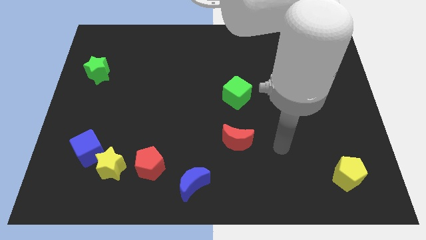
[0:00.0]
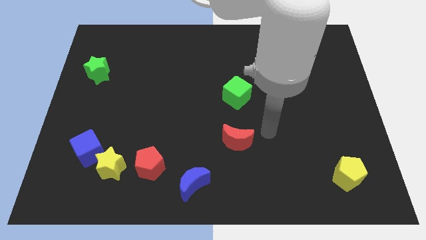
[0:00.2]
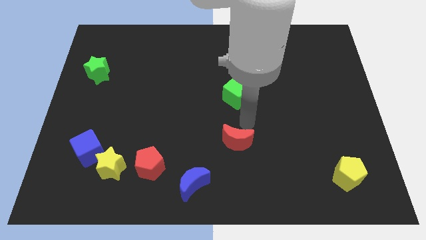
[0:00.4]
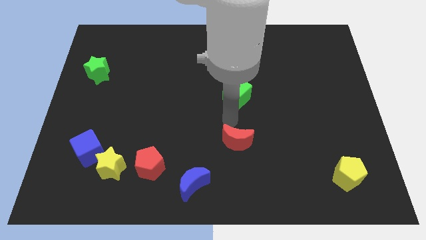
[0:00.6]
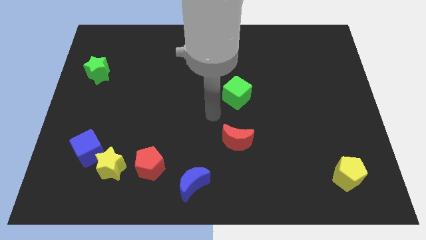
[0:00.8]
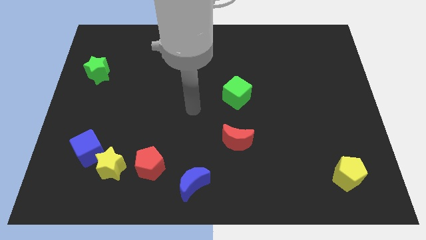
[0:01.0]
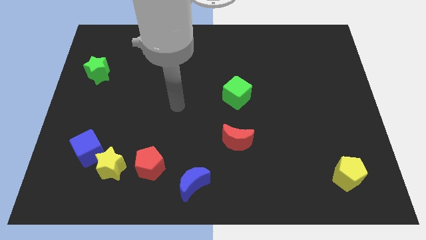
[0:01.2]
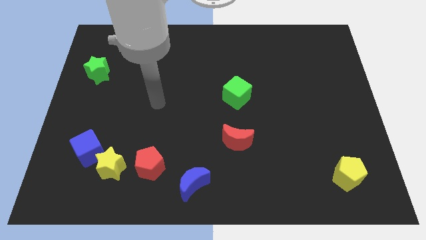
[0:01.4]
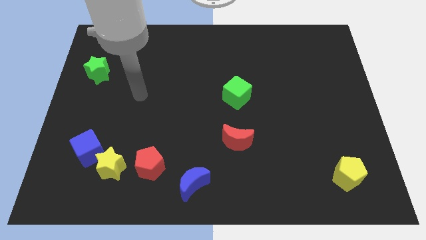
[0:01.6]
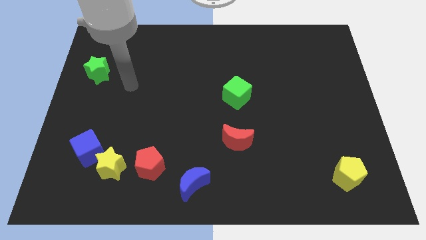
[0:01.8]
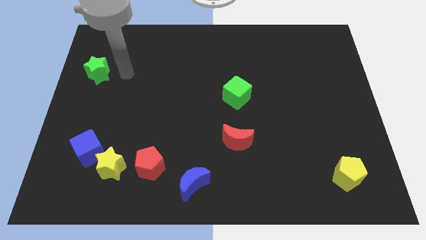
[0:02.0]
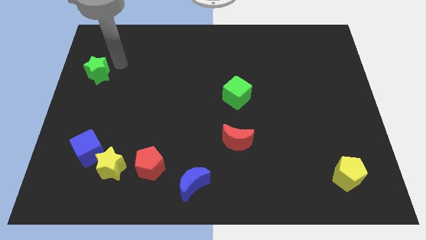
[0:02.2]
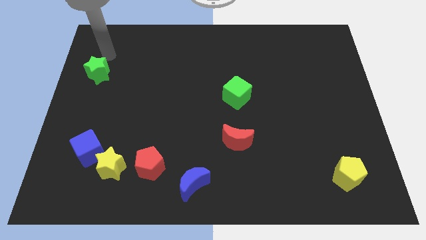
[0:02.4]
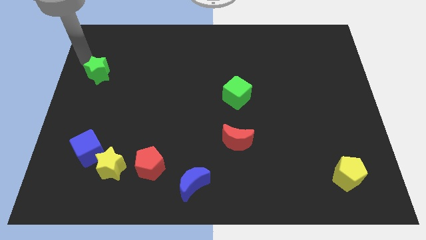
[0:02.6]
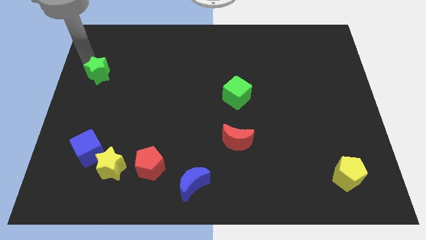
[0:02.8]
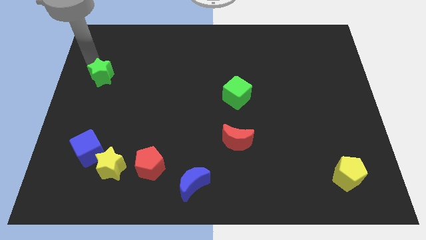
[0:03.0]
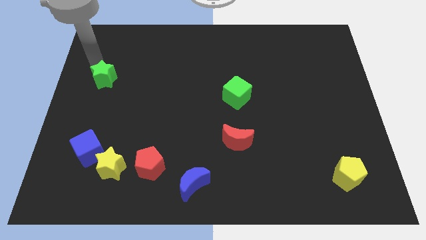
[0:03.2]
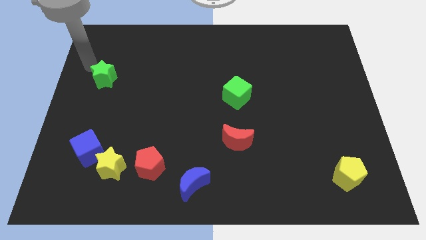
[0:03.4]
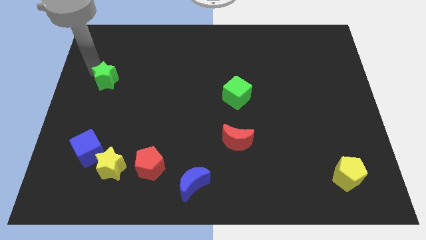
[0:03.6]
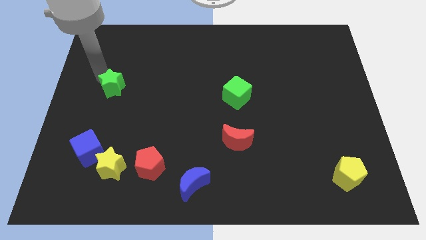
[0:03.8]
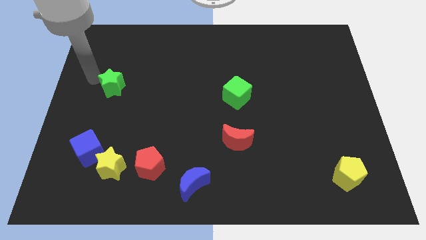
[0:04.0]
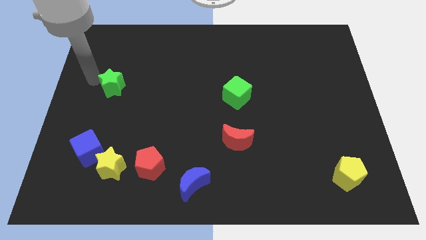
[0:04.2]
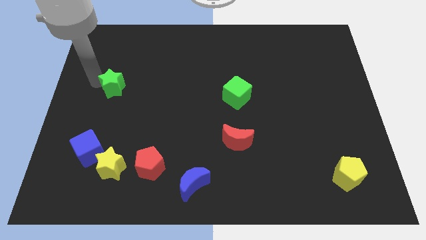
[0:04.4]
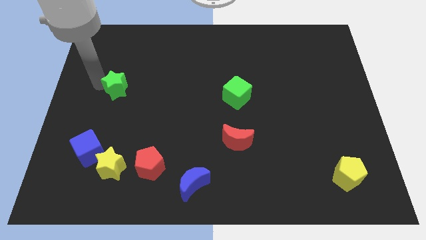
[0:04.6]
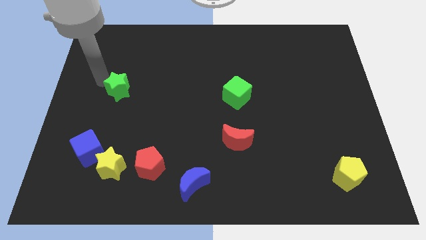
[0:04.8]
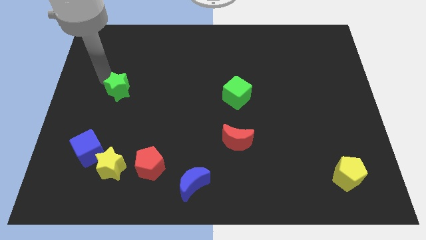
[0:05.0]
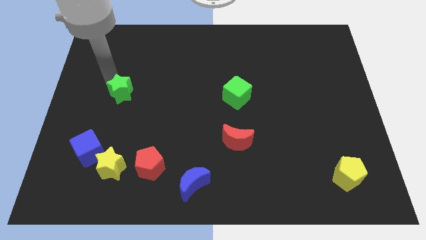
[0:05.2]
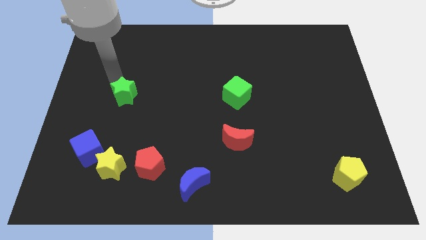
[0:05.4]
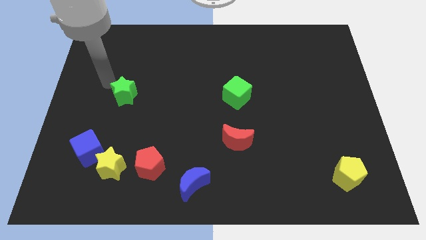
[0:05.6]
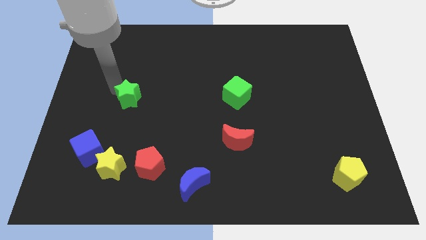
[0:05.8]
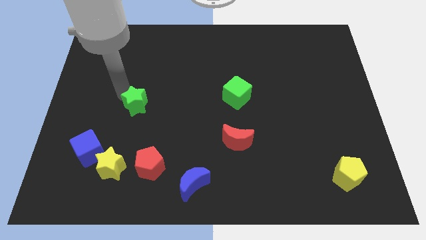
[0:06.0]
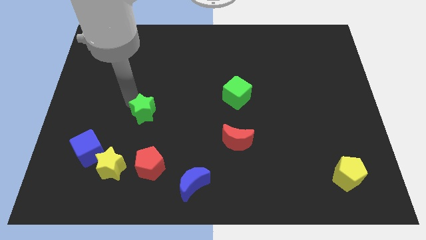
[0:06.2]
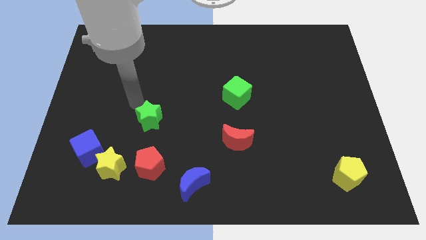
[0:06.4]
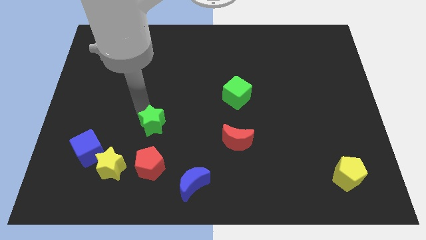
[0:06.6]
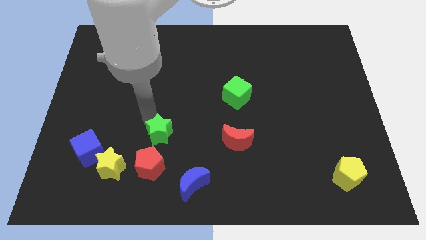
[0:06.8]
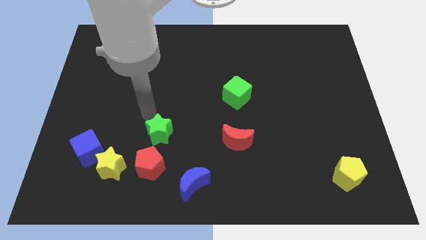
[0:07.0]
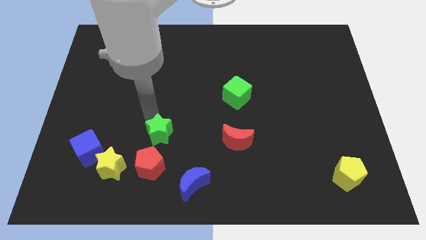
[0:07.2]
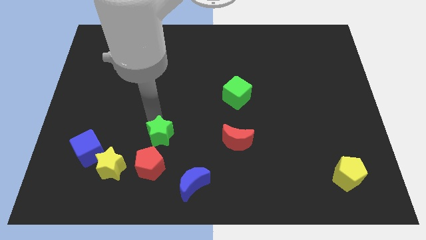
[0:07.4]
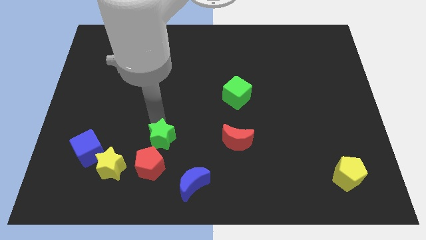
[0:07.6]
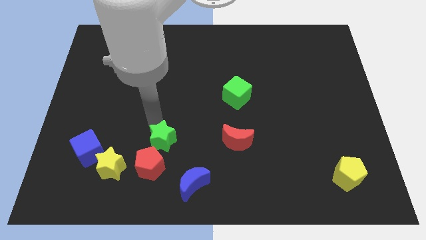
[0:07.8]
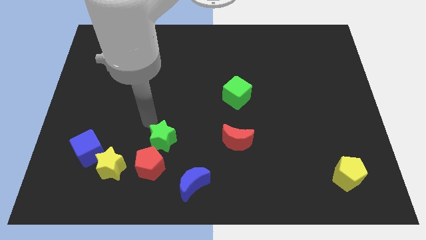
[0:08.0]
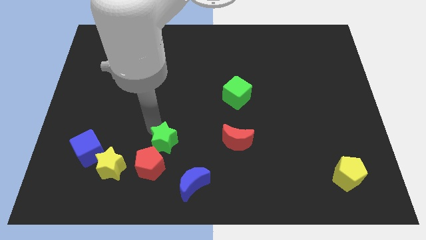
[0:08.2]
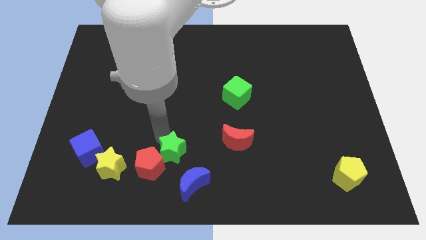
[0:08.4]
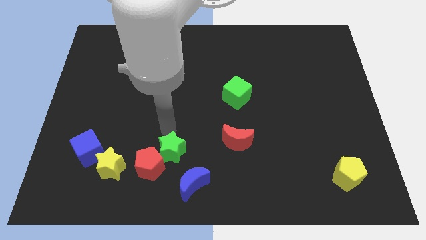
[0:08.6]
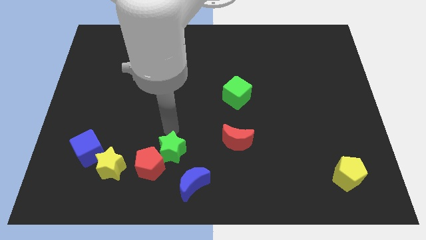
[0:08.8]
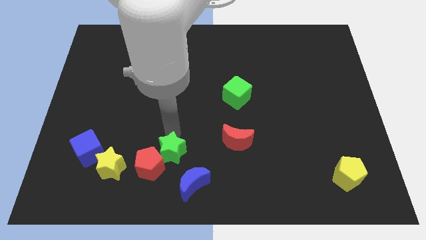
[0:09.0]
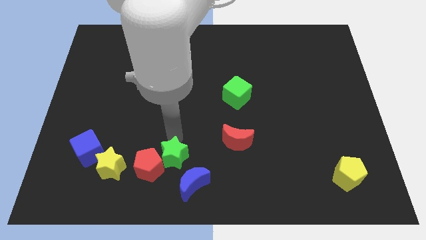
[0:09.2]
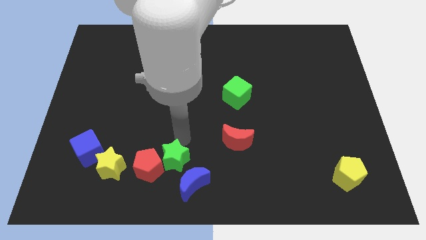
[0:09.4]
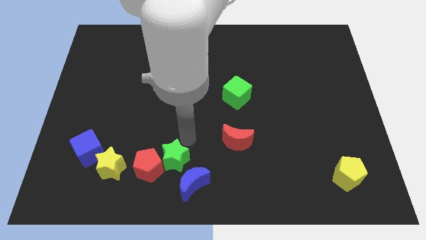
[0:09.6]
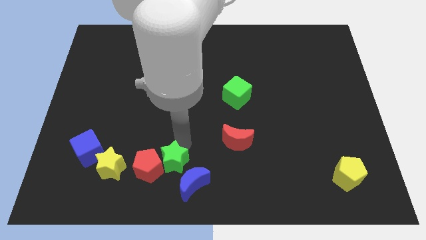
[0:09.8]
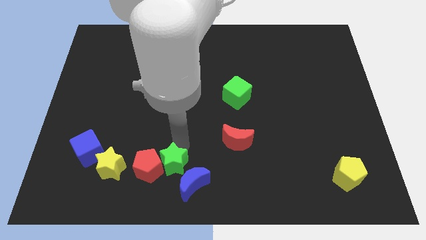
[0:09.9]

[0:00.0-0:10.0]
move the green star just left of the blue moon

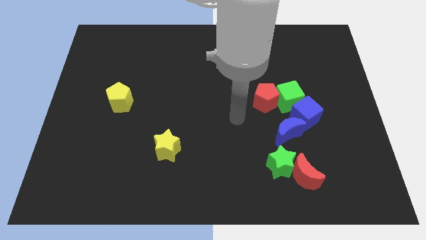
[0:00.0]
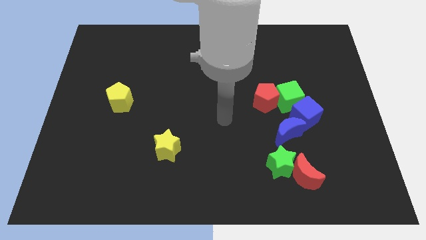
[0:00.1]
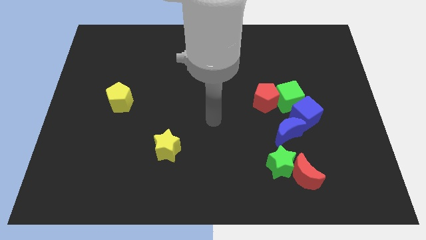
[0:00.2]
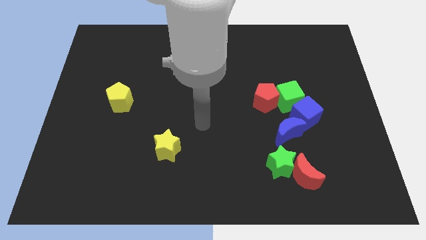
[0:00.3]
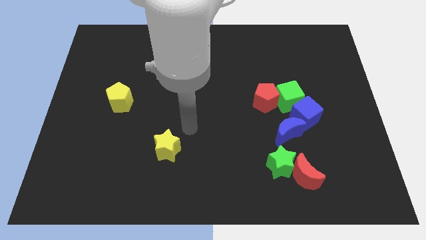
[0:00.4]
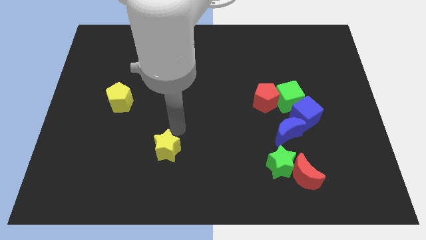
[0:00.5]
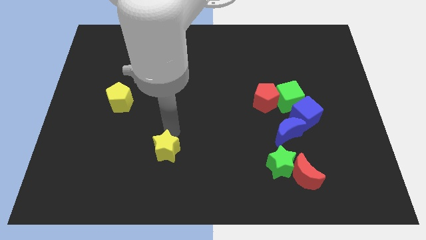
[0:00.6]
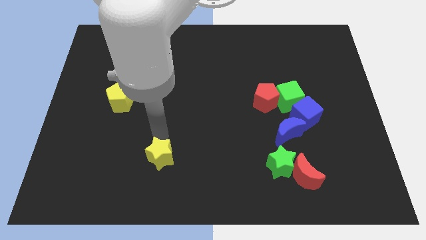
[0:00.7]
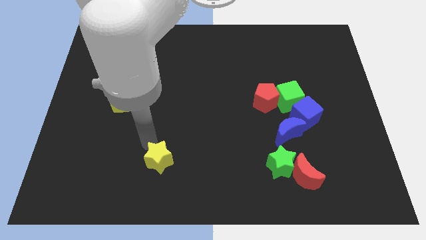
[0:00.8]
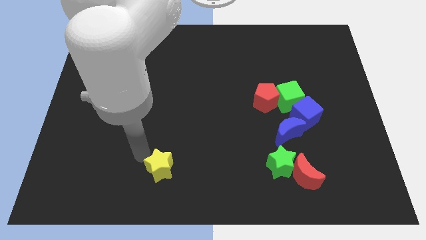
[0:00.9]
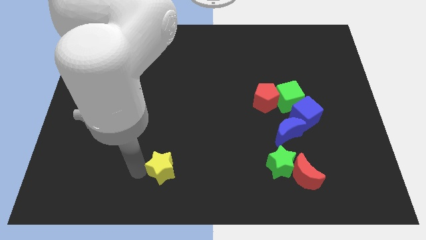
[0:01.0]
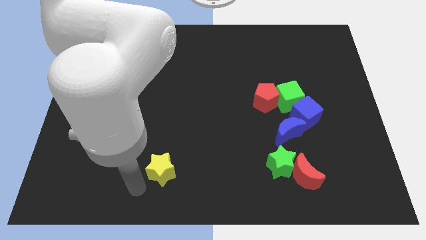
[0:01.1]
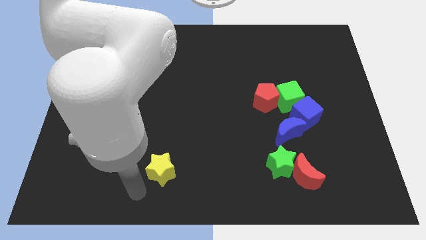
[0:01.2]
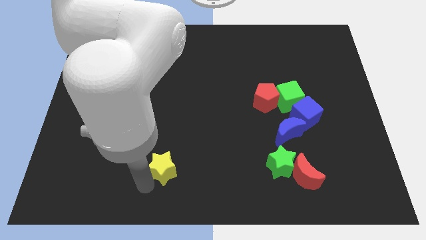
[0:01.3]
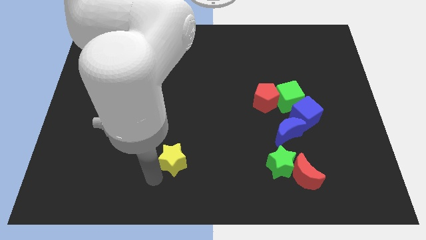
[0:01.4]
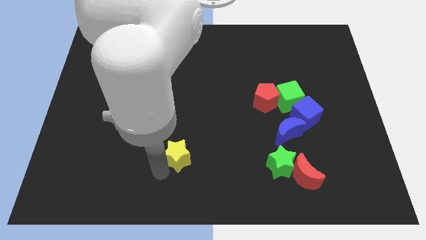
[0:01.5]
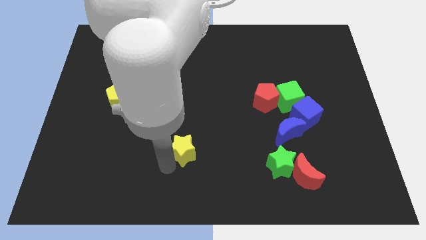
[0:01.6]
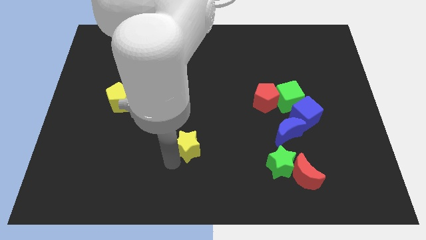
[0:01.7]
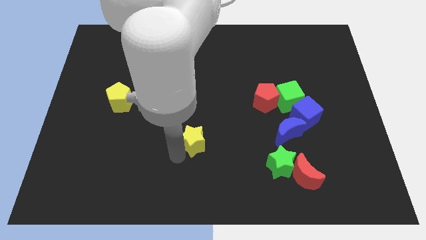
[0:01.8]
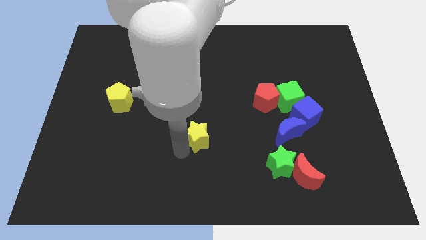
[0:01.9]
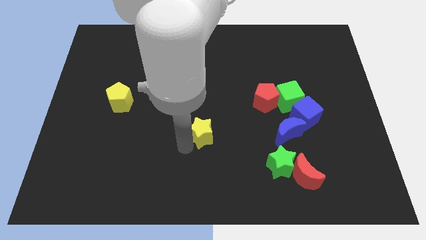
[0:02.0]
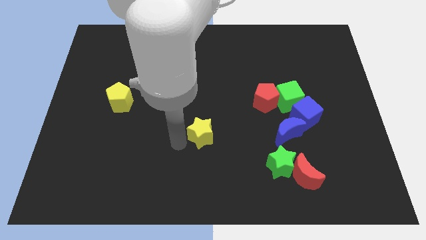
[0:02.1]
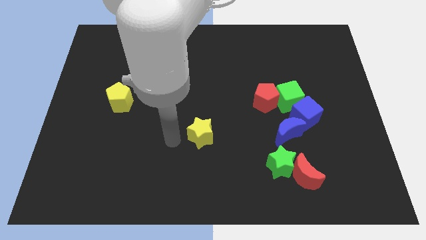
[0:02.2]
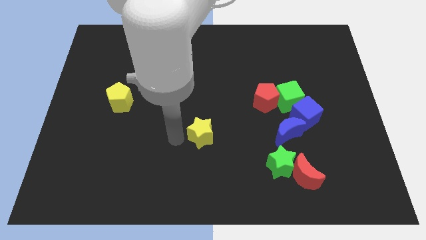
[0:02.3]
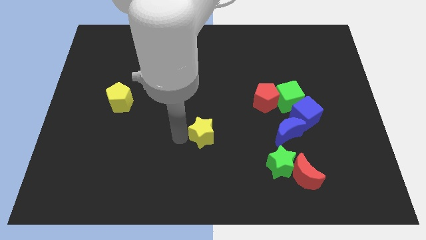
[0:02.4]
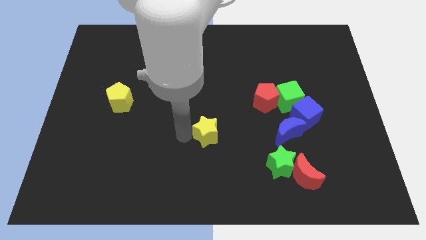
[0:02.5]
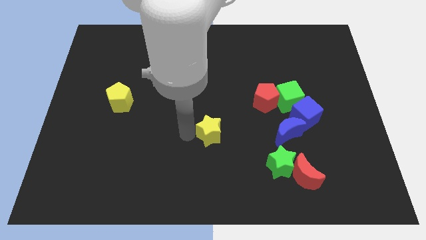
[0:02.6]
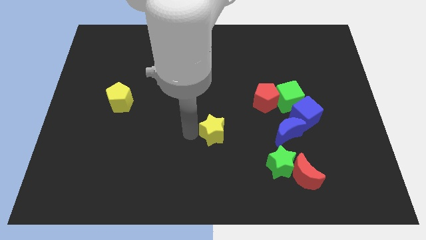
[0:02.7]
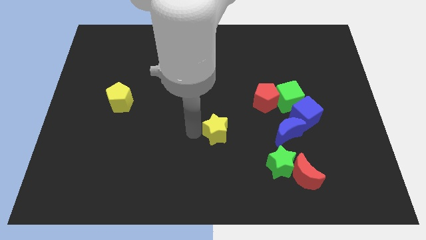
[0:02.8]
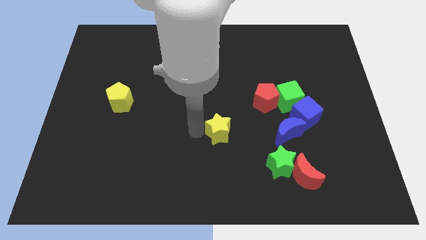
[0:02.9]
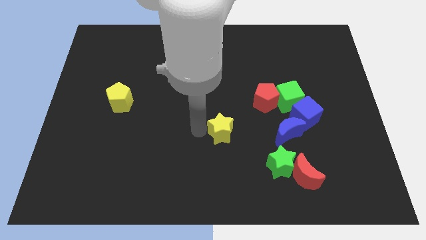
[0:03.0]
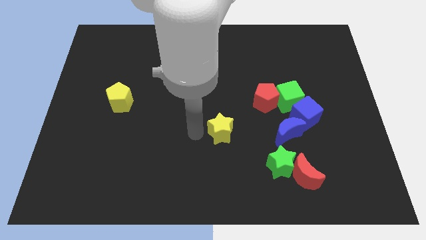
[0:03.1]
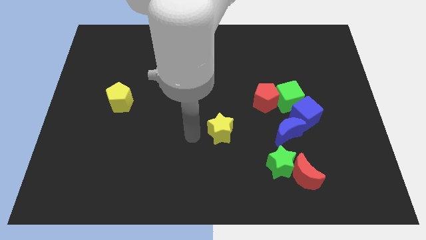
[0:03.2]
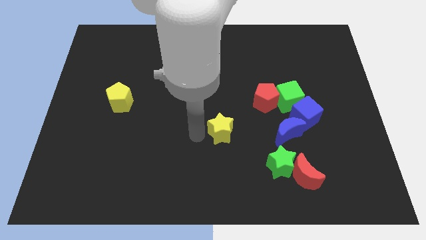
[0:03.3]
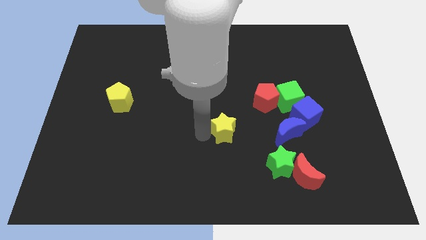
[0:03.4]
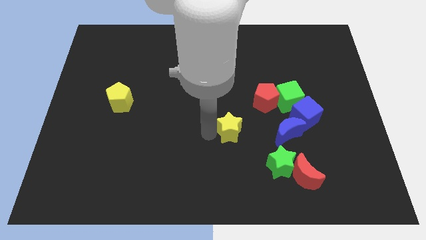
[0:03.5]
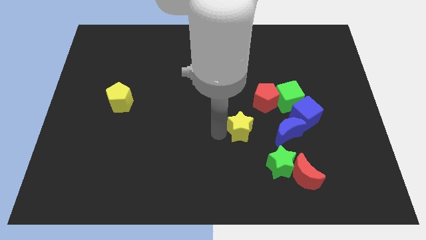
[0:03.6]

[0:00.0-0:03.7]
put the yellow star left of the blue cube
